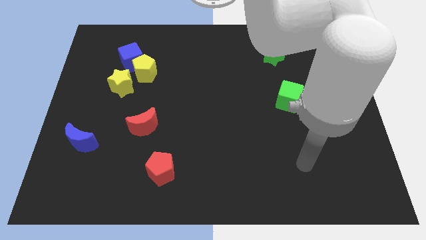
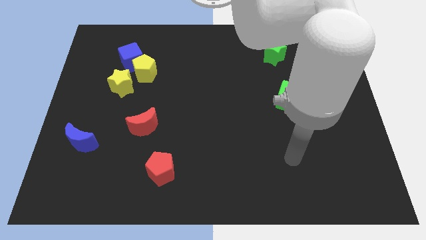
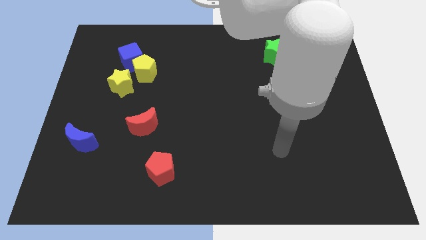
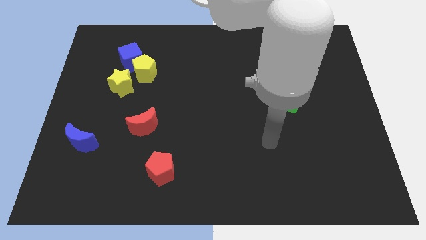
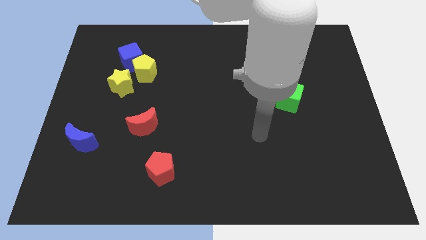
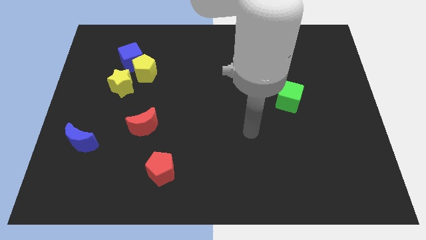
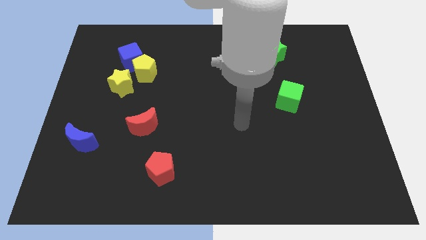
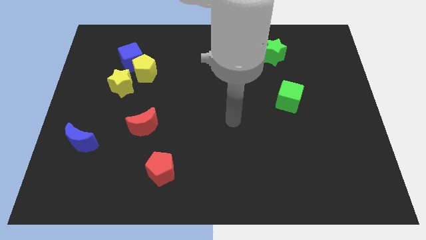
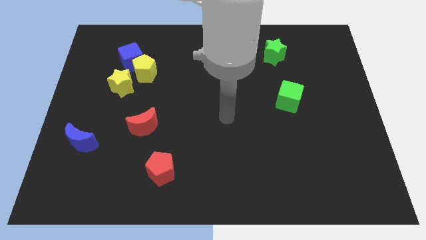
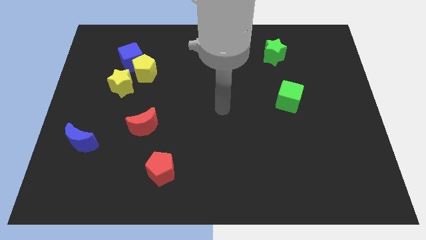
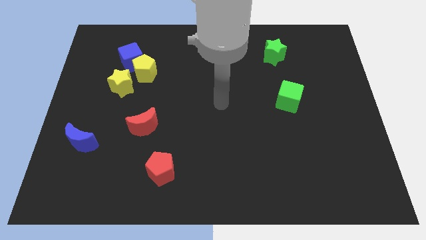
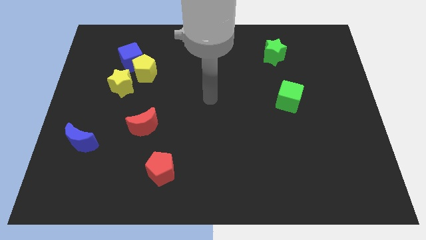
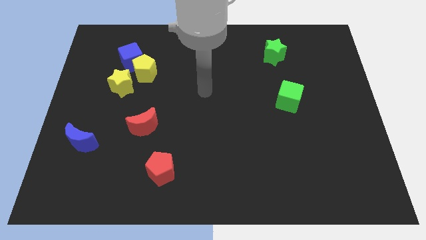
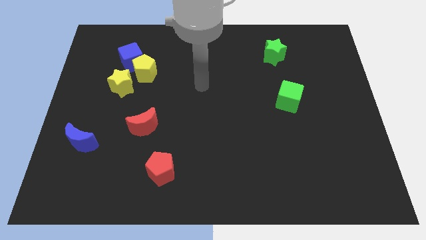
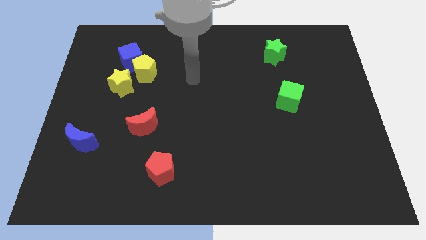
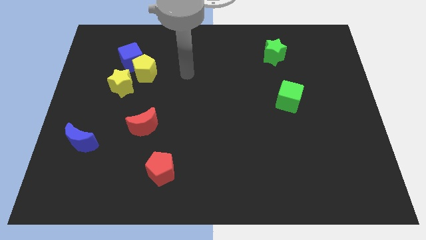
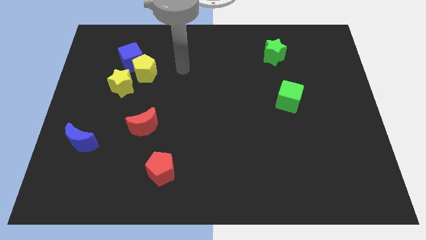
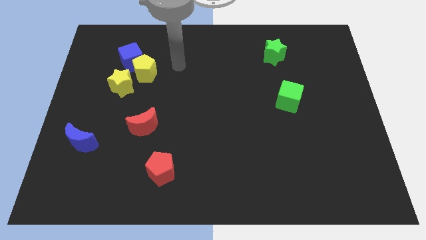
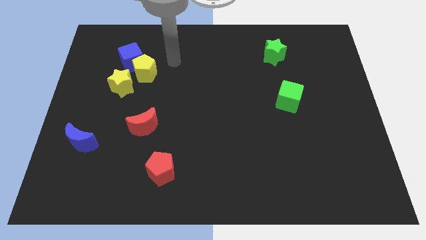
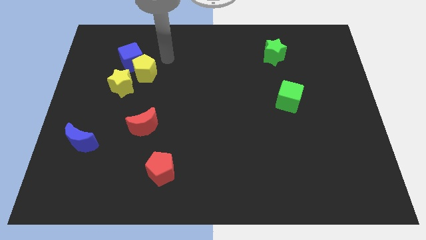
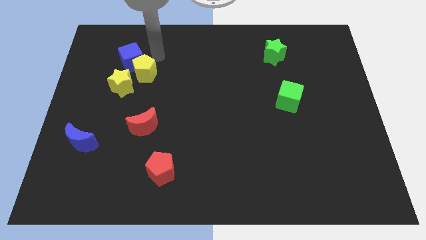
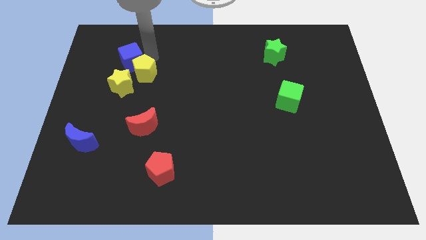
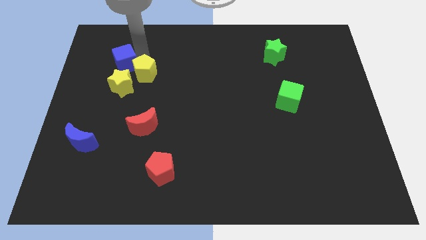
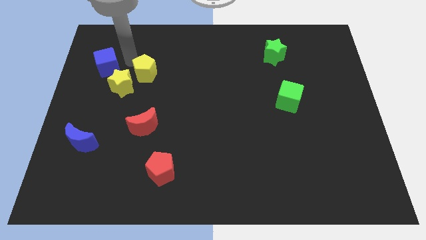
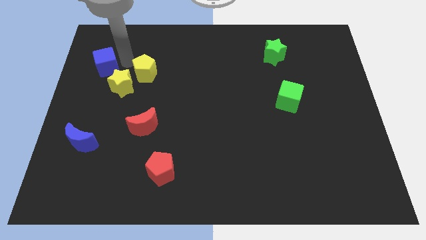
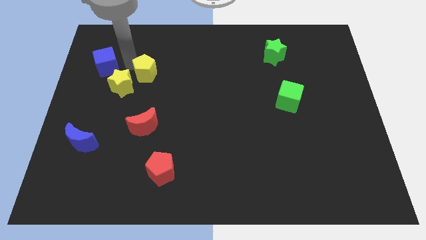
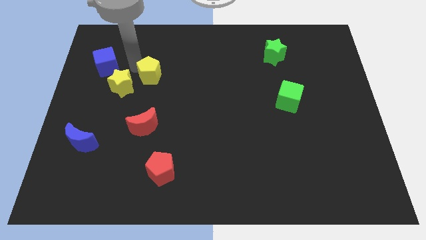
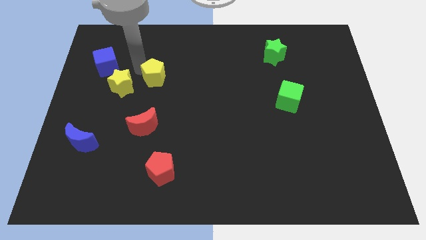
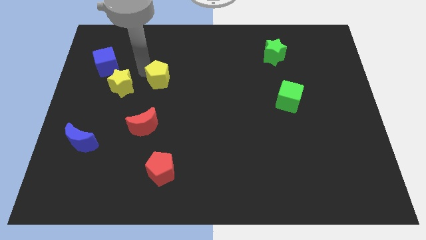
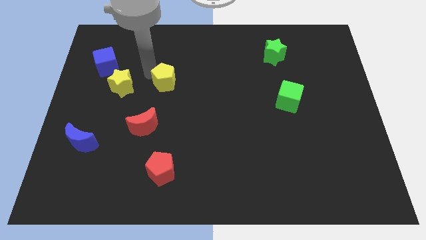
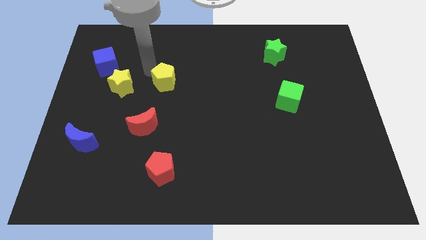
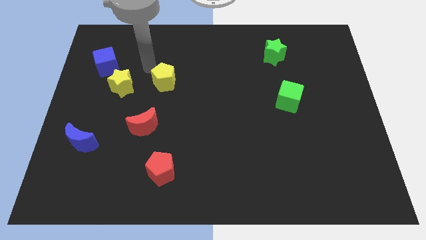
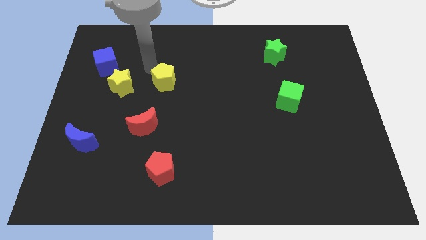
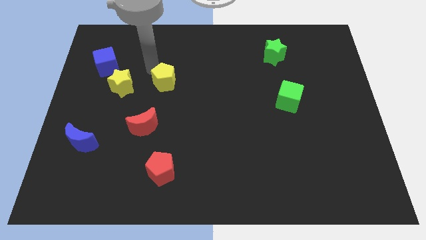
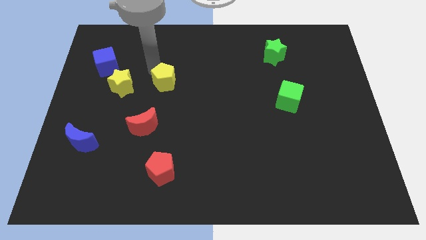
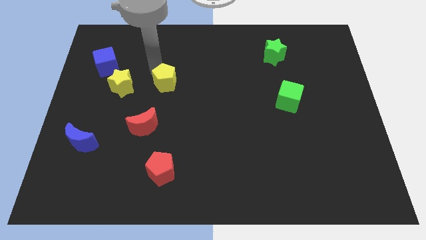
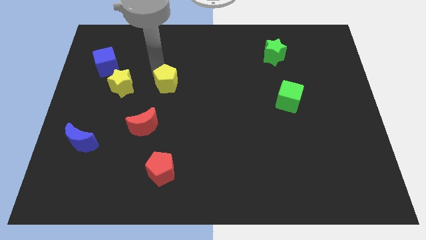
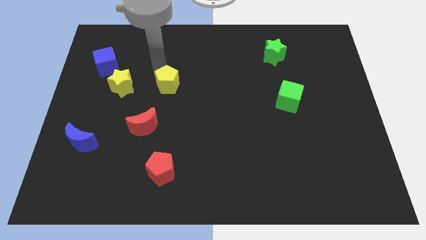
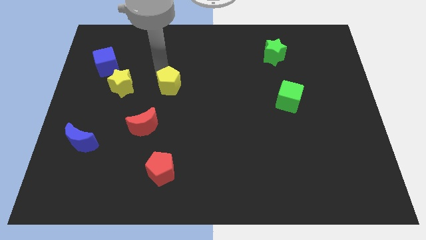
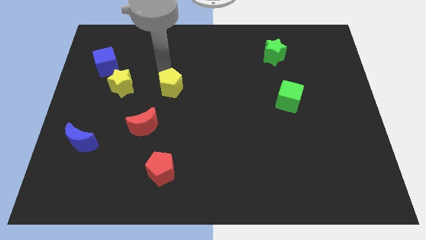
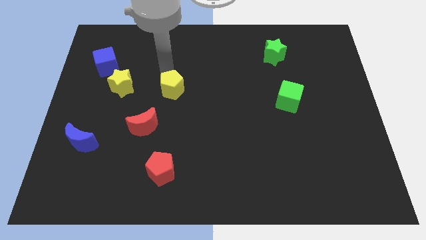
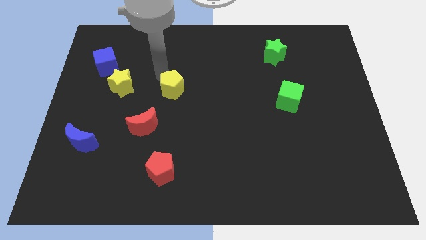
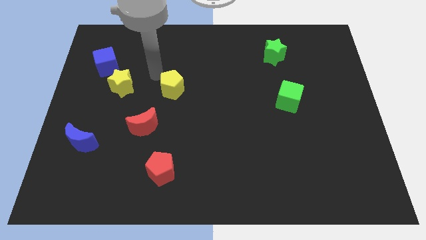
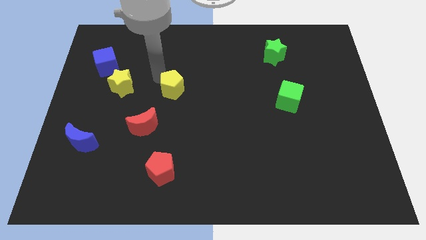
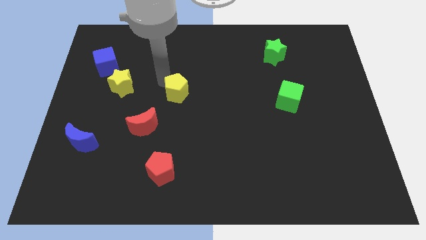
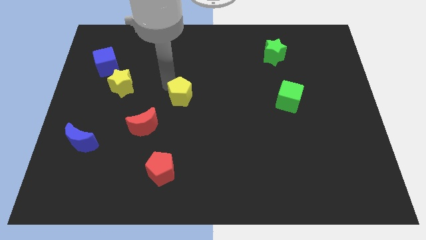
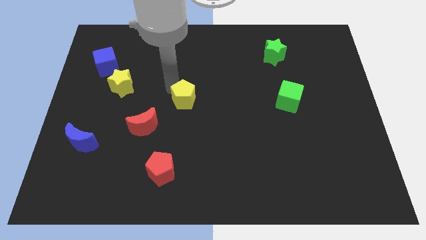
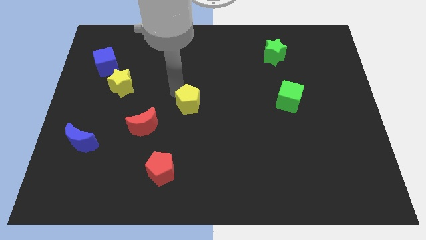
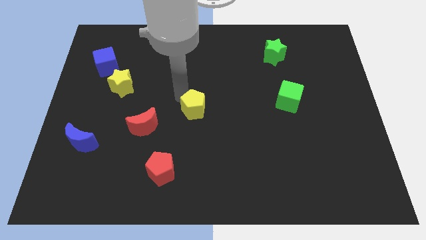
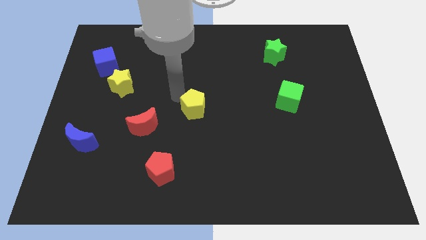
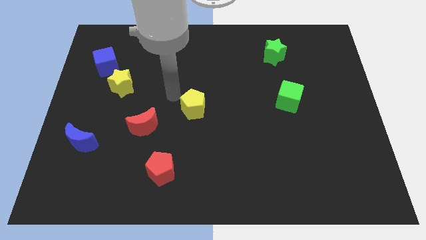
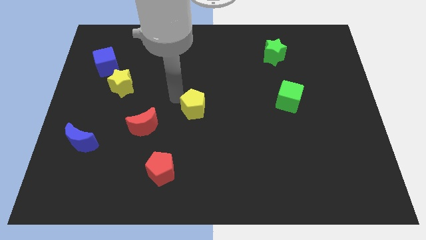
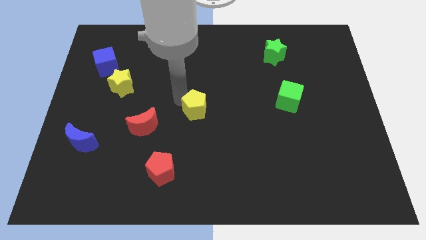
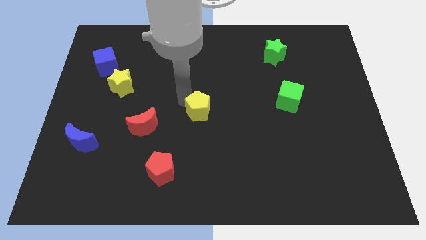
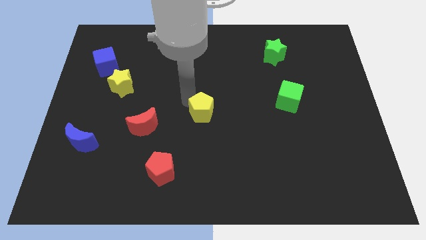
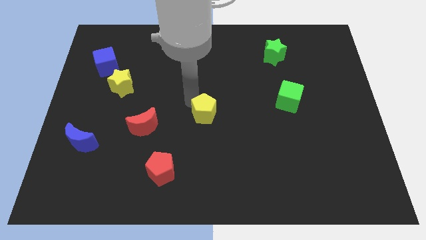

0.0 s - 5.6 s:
move the yellow pentagon down and right

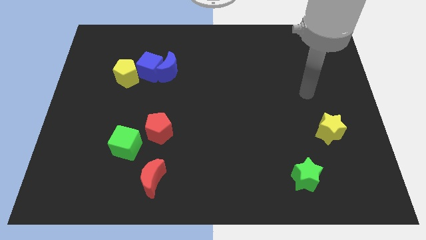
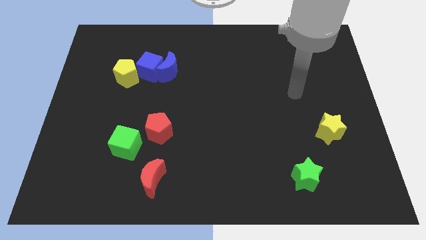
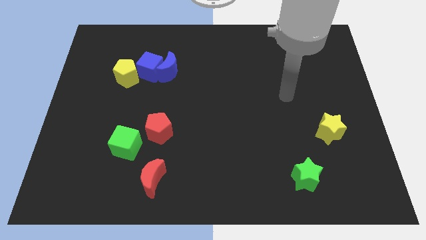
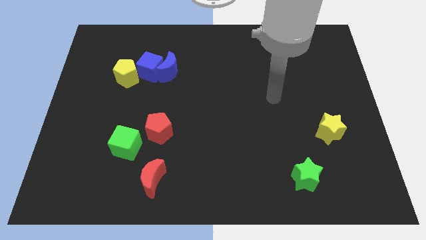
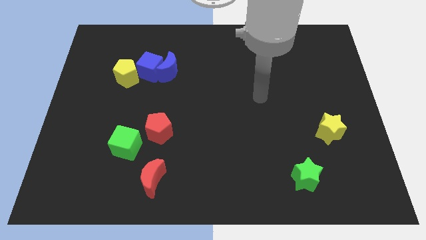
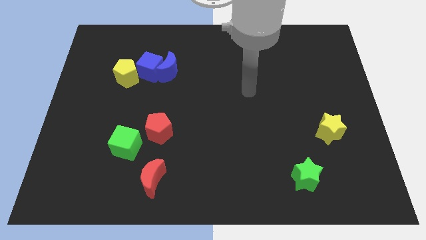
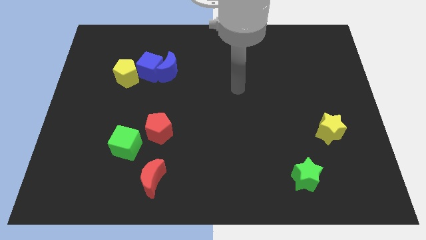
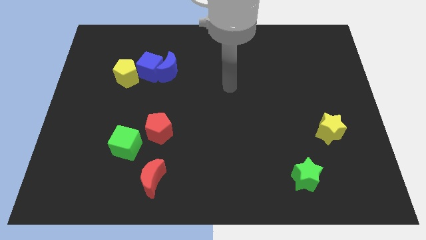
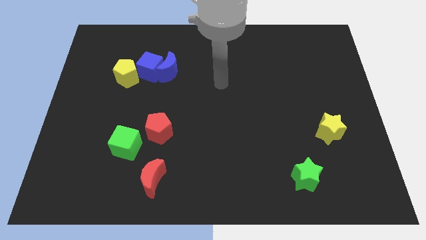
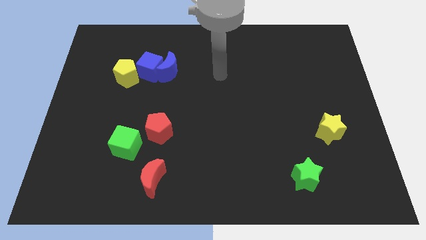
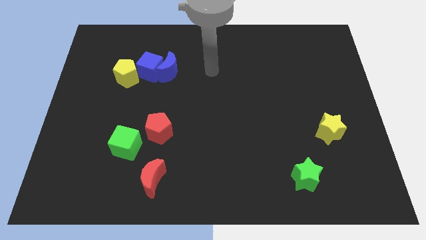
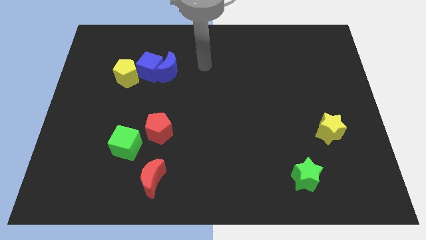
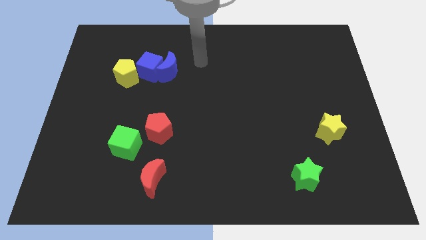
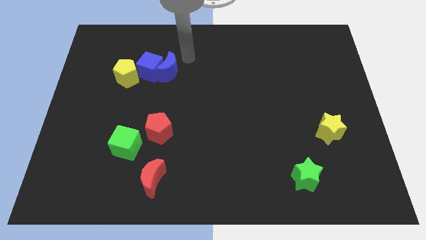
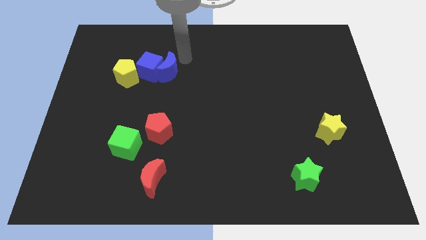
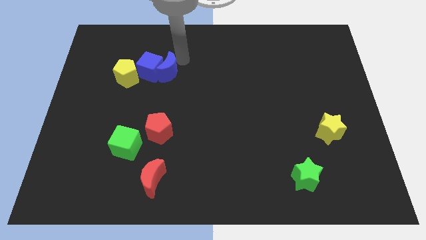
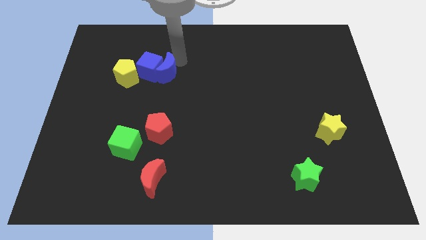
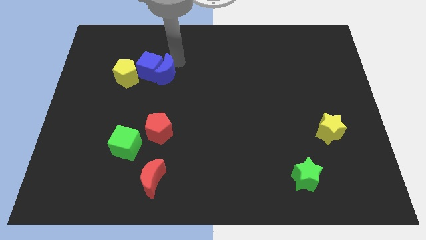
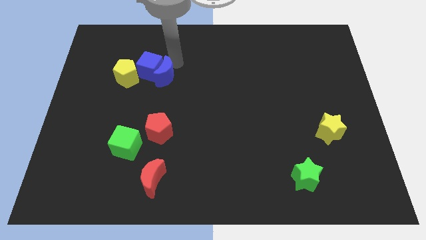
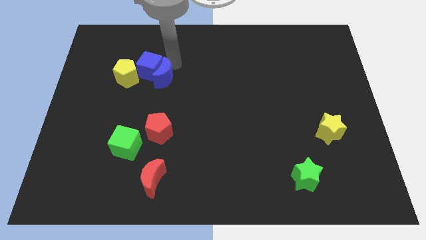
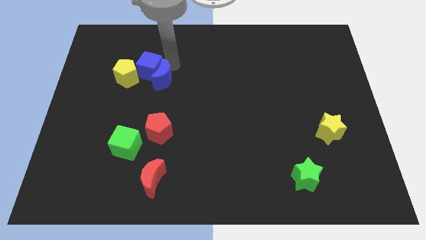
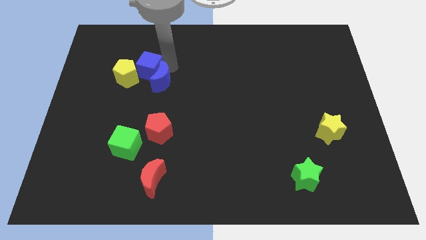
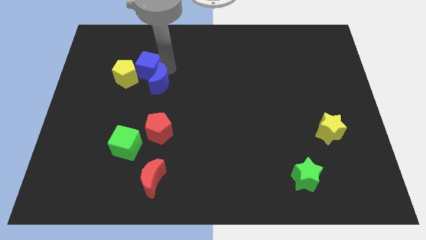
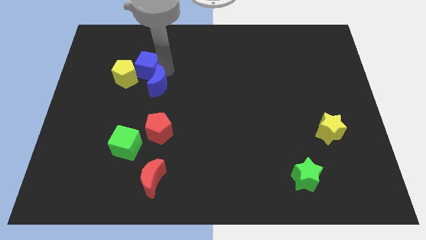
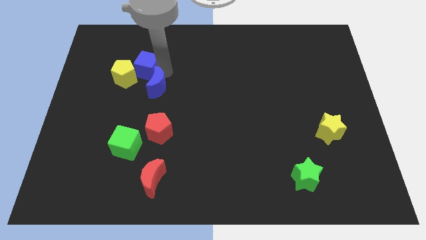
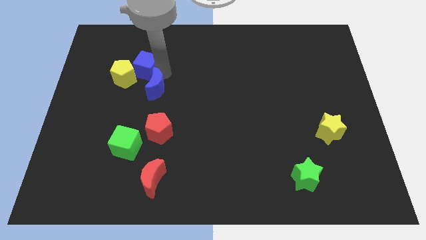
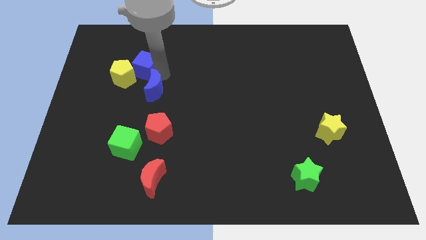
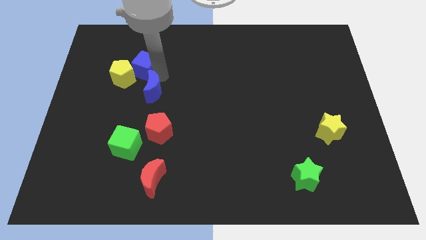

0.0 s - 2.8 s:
slide the blue moon down and to the left a little bit
